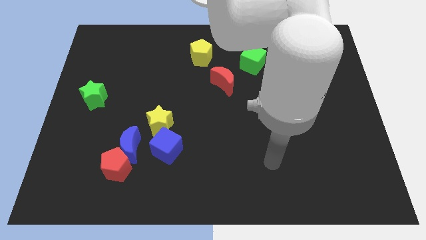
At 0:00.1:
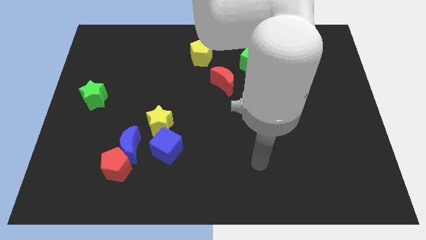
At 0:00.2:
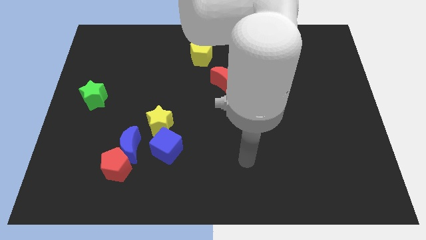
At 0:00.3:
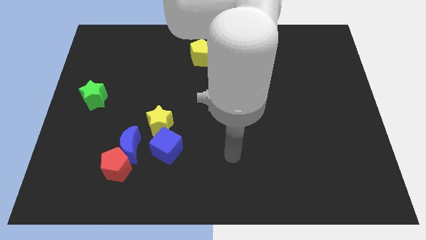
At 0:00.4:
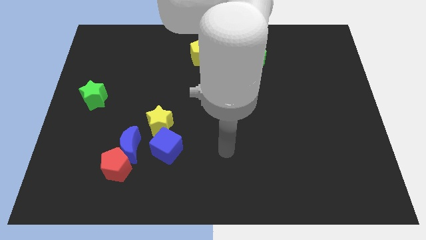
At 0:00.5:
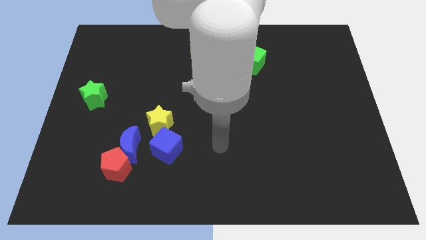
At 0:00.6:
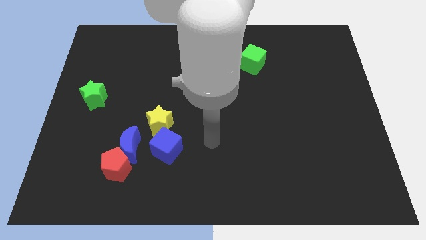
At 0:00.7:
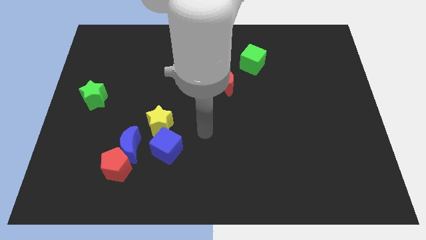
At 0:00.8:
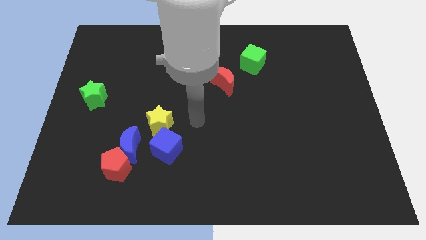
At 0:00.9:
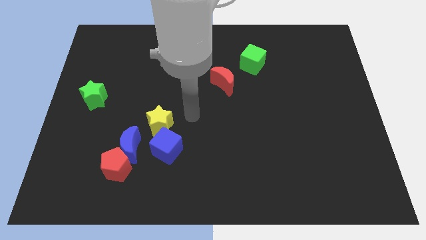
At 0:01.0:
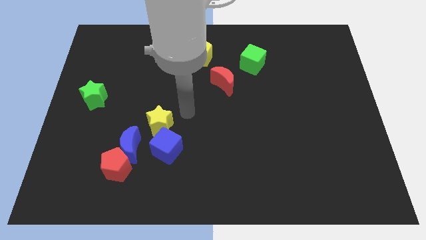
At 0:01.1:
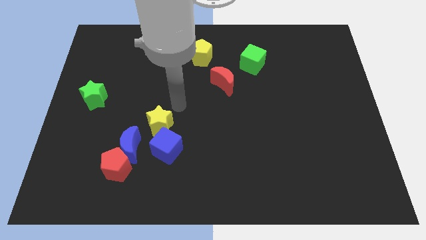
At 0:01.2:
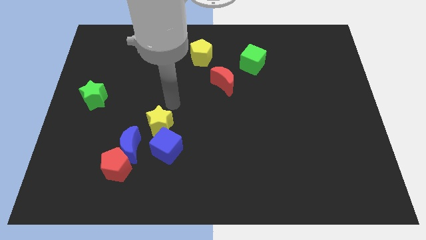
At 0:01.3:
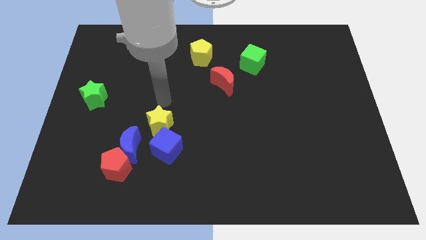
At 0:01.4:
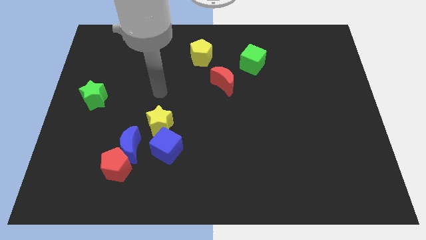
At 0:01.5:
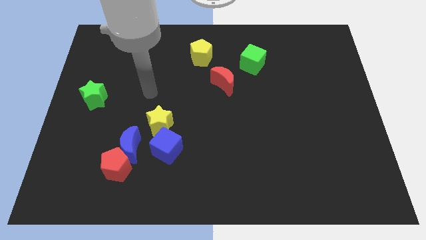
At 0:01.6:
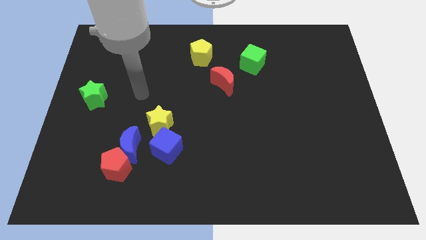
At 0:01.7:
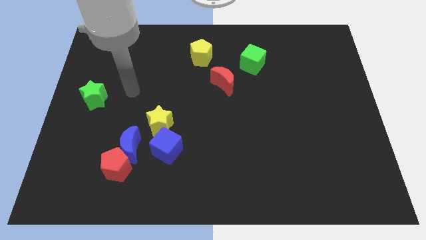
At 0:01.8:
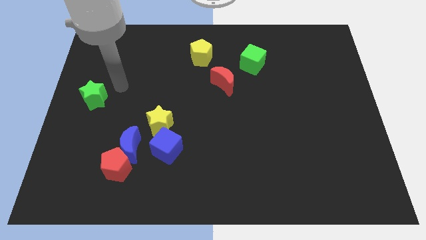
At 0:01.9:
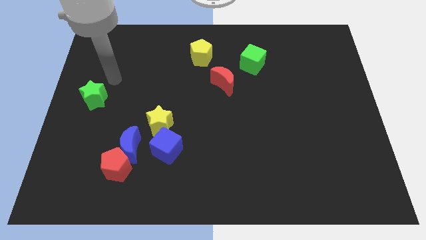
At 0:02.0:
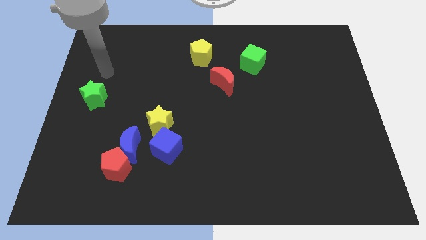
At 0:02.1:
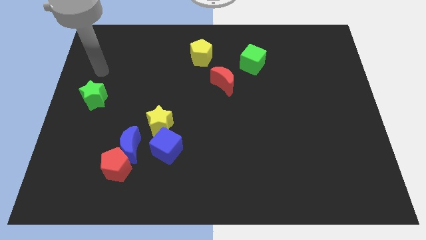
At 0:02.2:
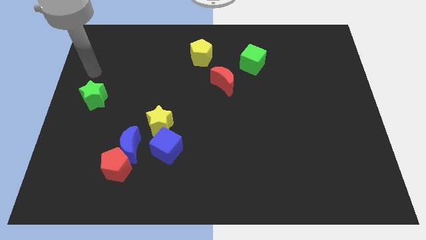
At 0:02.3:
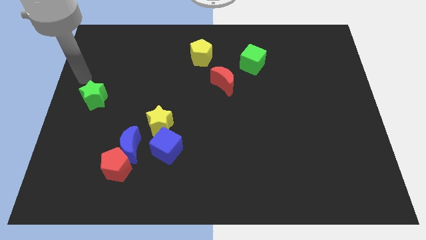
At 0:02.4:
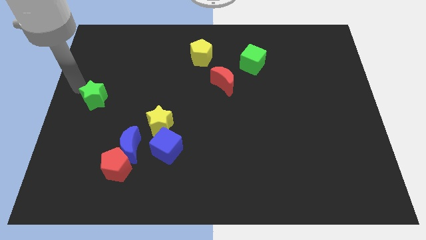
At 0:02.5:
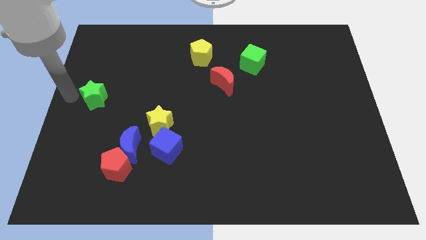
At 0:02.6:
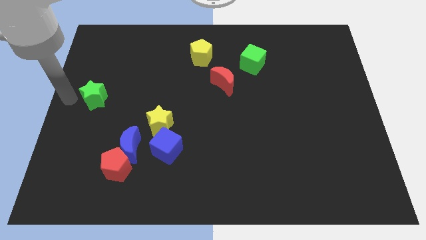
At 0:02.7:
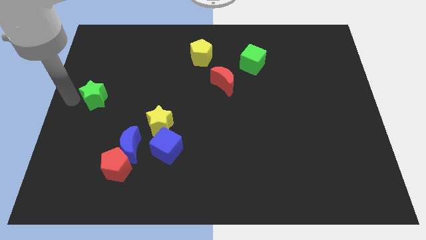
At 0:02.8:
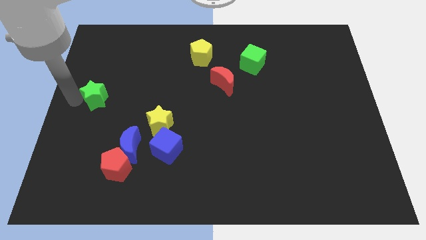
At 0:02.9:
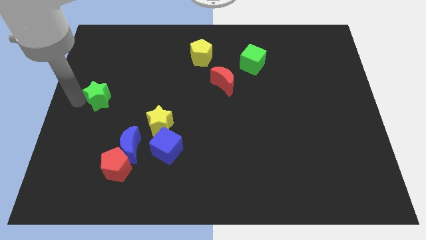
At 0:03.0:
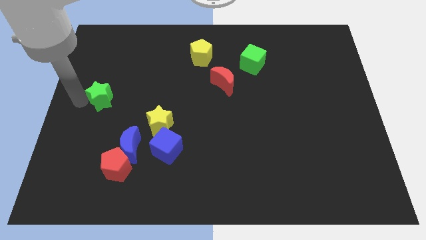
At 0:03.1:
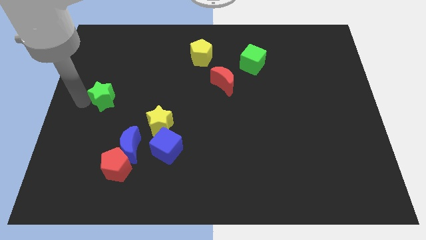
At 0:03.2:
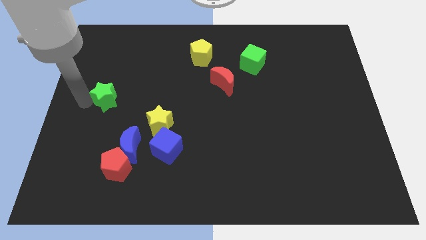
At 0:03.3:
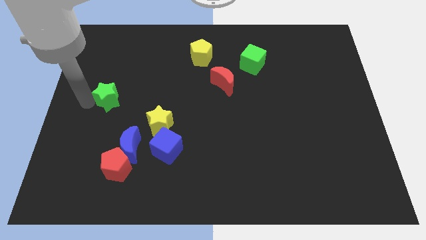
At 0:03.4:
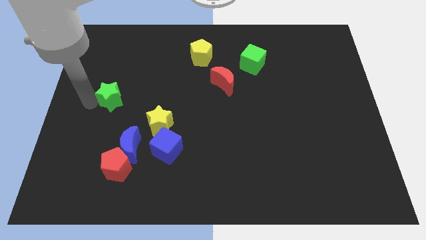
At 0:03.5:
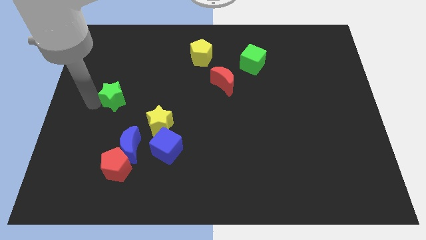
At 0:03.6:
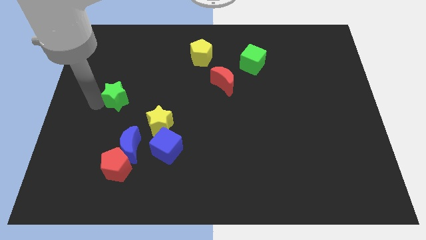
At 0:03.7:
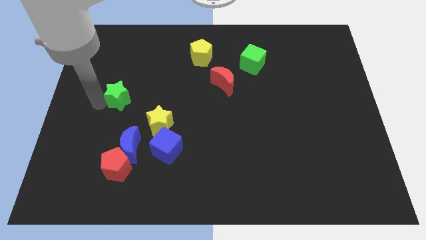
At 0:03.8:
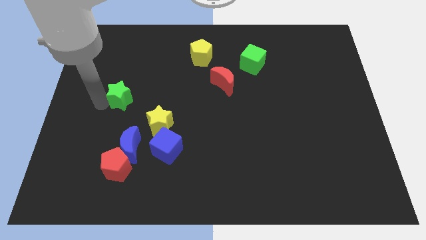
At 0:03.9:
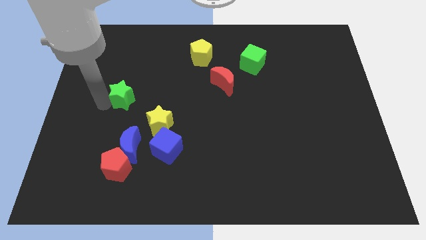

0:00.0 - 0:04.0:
push the green star slightly right

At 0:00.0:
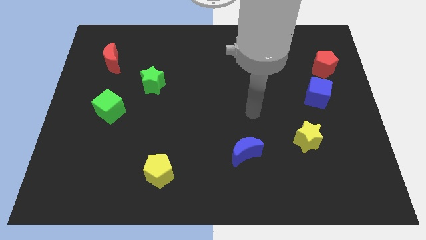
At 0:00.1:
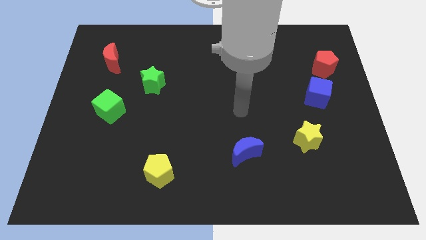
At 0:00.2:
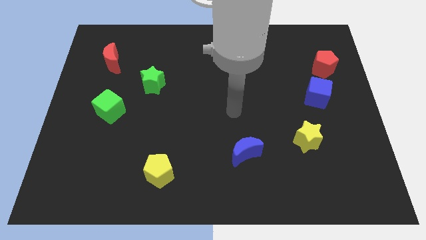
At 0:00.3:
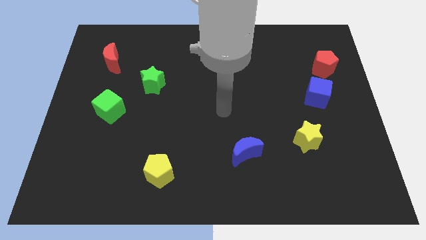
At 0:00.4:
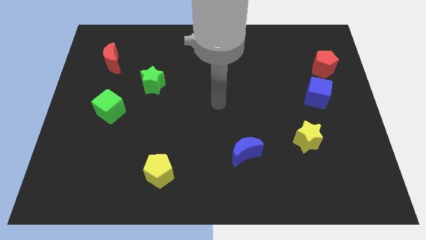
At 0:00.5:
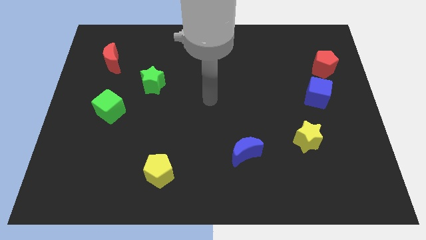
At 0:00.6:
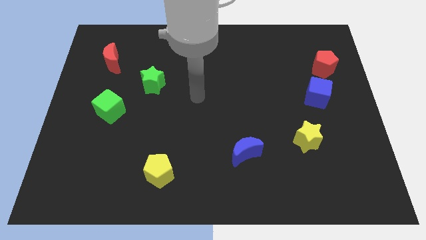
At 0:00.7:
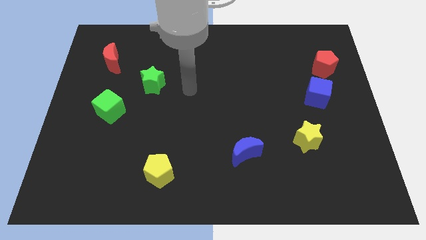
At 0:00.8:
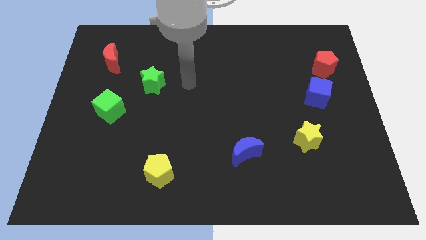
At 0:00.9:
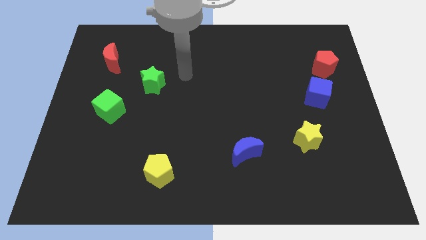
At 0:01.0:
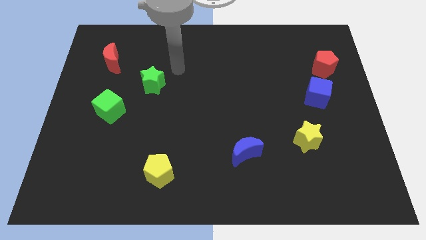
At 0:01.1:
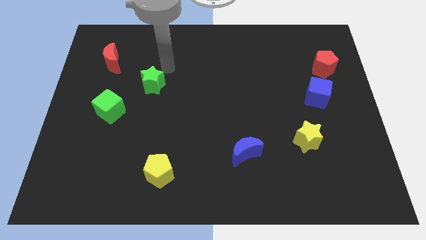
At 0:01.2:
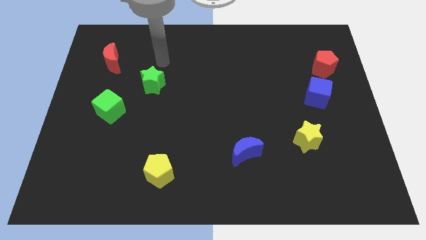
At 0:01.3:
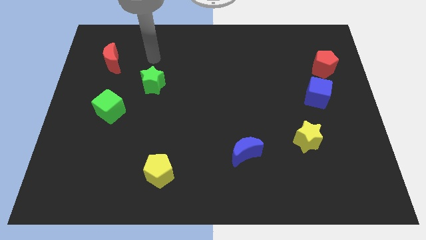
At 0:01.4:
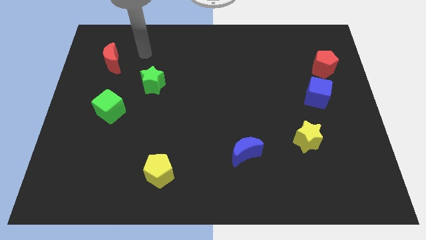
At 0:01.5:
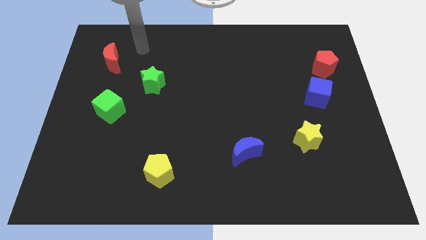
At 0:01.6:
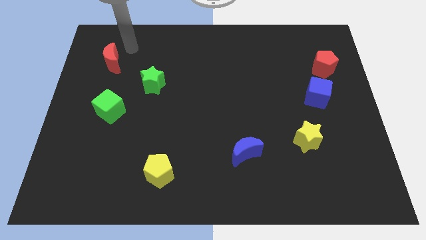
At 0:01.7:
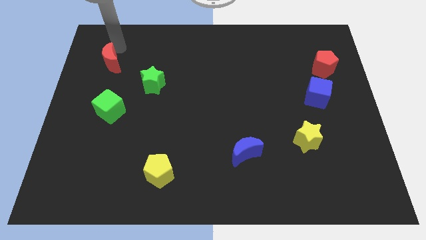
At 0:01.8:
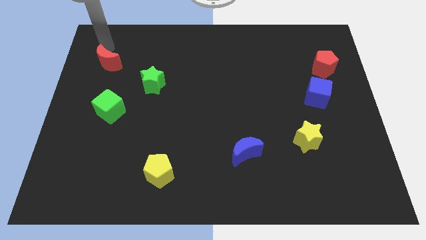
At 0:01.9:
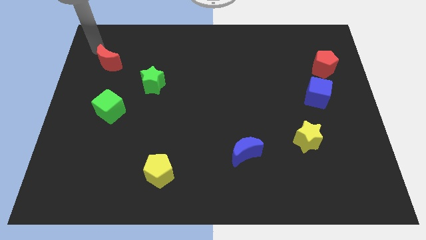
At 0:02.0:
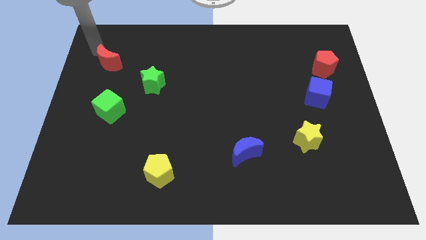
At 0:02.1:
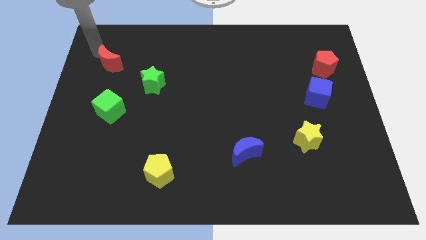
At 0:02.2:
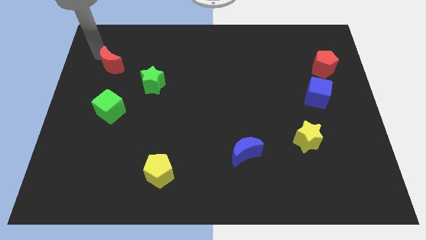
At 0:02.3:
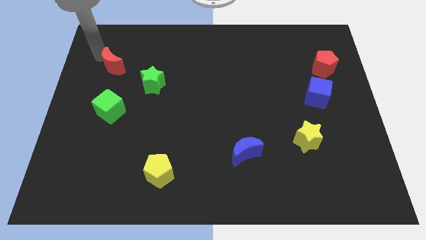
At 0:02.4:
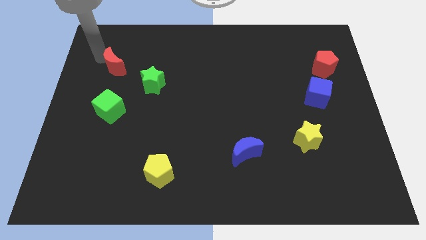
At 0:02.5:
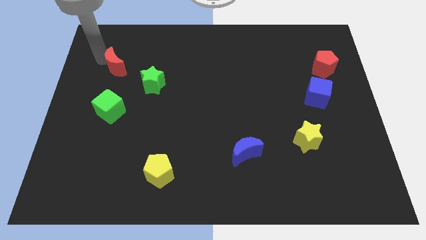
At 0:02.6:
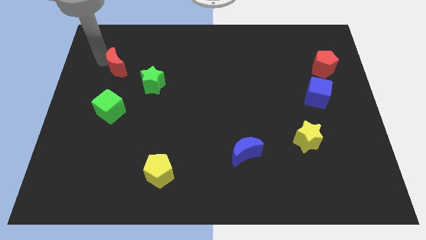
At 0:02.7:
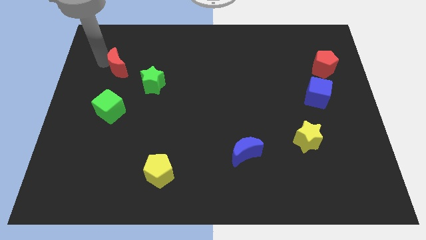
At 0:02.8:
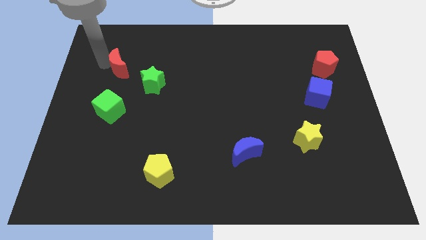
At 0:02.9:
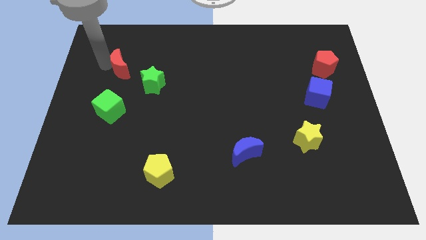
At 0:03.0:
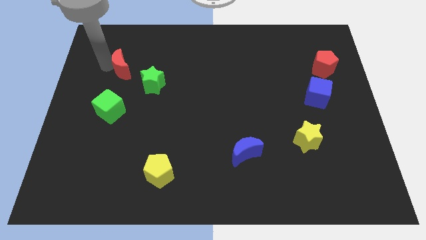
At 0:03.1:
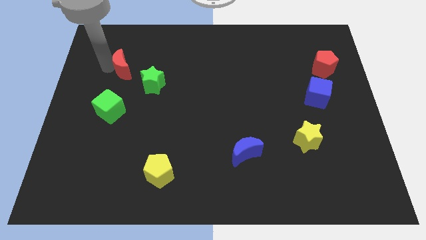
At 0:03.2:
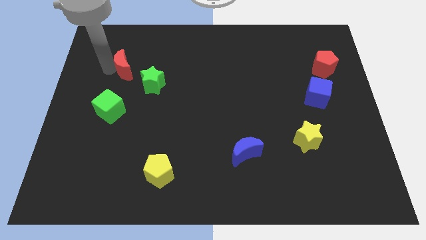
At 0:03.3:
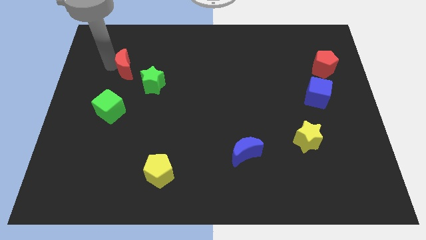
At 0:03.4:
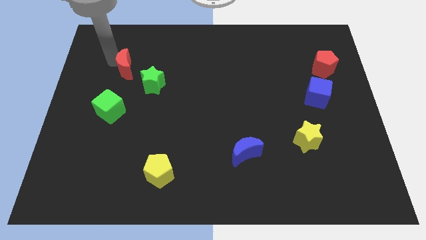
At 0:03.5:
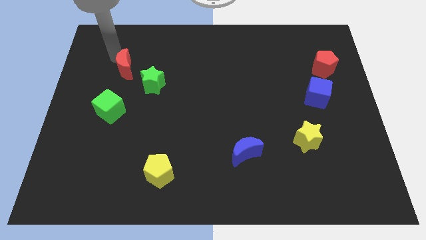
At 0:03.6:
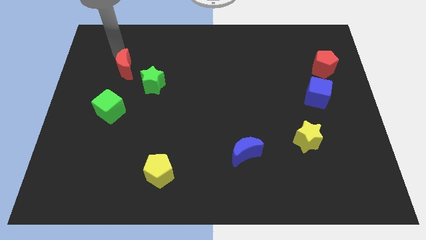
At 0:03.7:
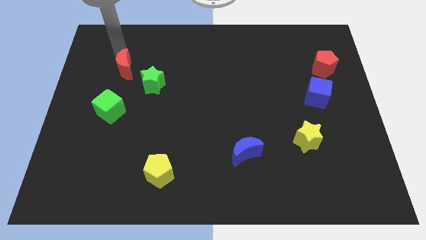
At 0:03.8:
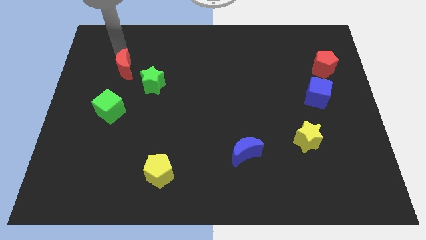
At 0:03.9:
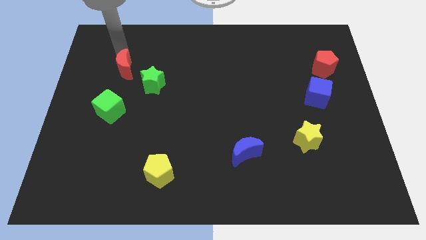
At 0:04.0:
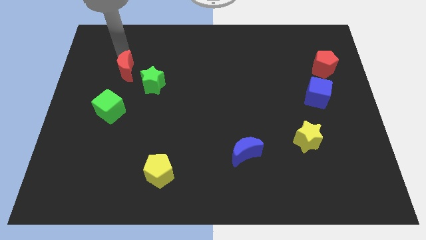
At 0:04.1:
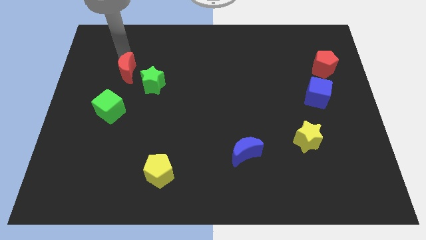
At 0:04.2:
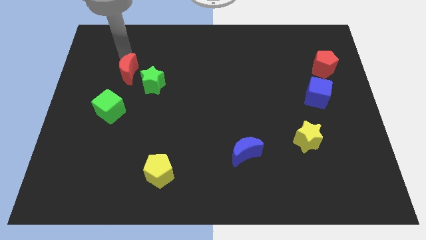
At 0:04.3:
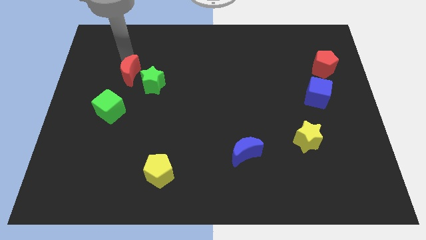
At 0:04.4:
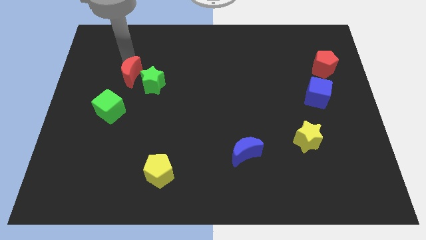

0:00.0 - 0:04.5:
slide the red moon diagonally down and right a little bit
